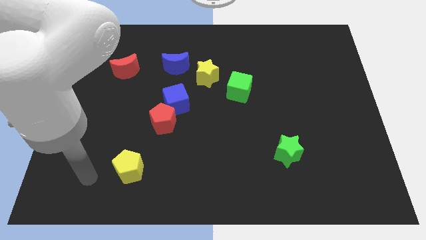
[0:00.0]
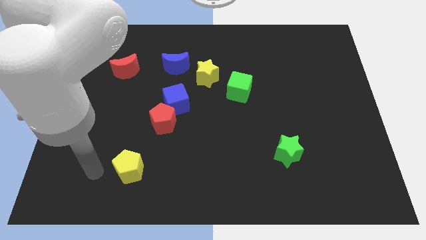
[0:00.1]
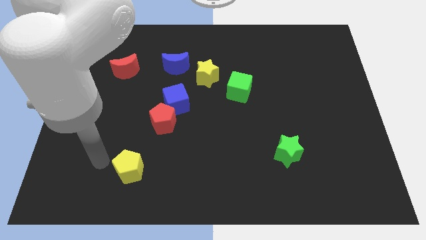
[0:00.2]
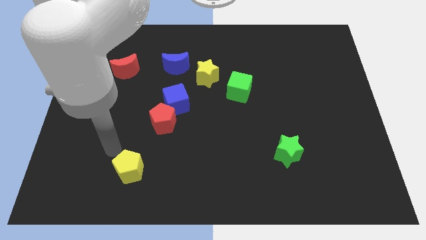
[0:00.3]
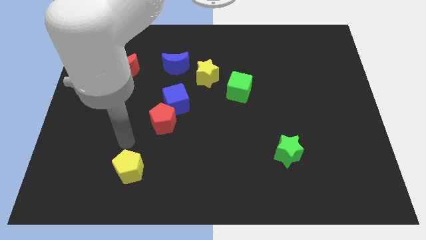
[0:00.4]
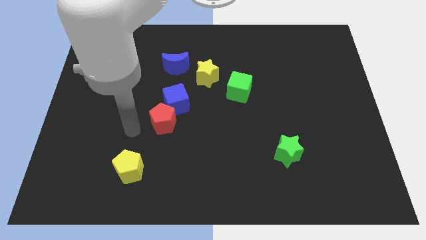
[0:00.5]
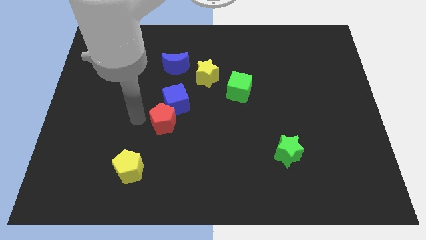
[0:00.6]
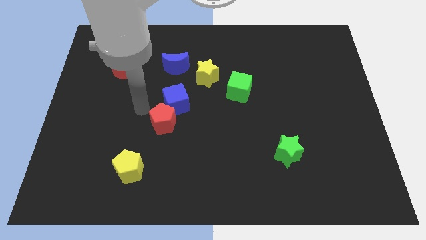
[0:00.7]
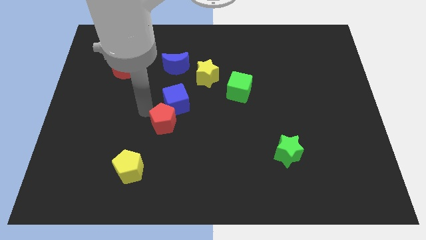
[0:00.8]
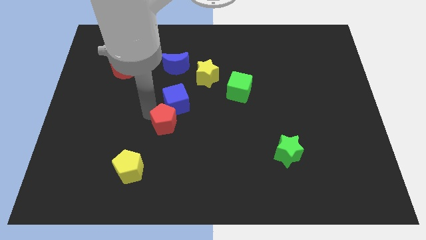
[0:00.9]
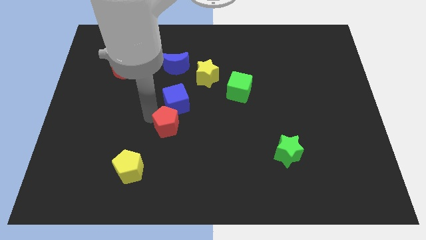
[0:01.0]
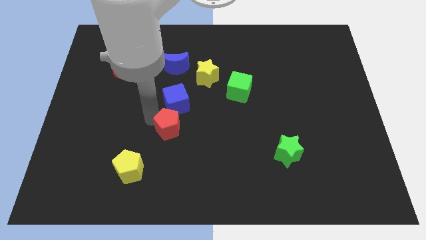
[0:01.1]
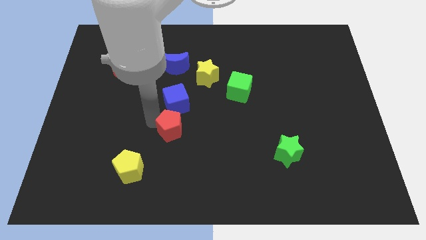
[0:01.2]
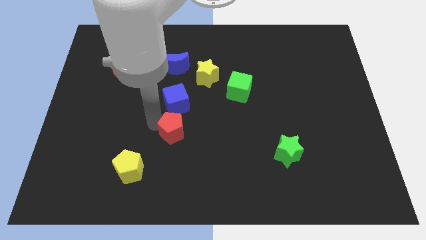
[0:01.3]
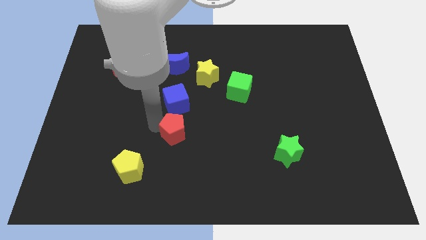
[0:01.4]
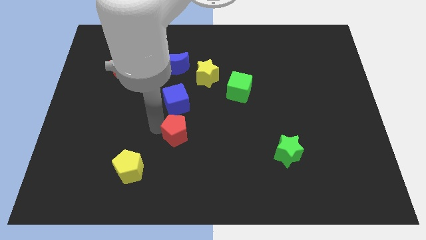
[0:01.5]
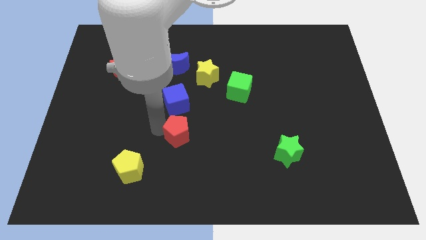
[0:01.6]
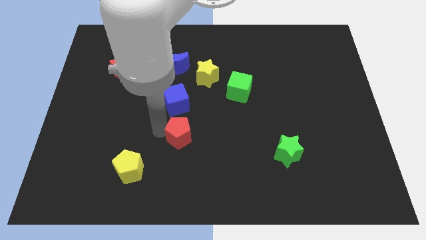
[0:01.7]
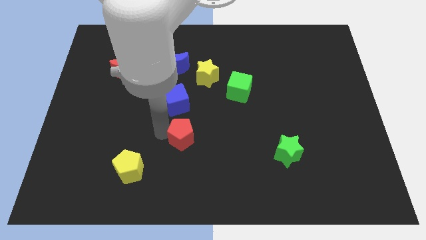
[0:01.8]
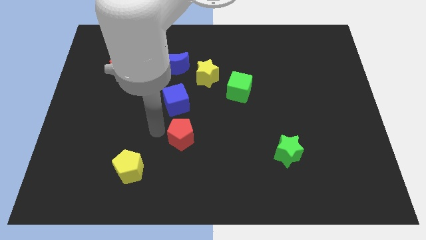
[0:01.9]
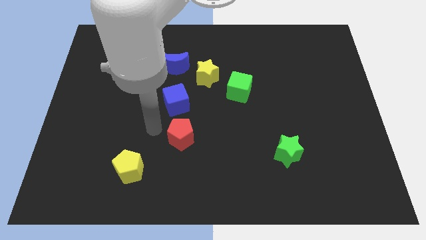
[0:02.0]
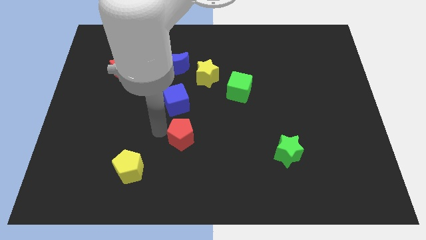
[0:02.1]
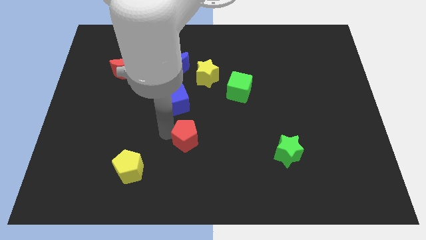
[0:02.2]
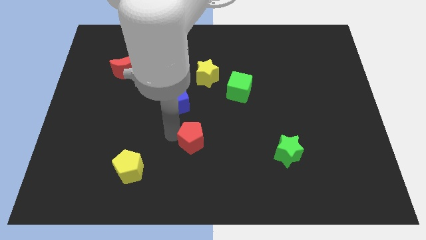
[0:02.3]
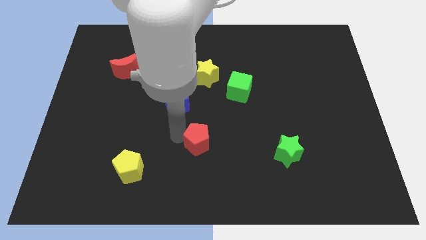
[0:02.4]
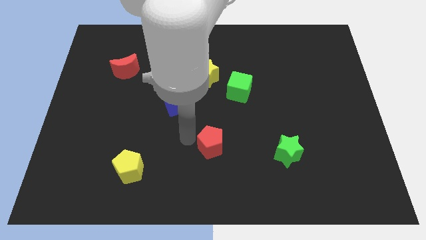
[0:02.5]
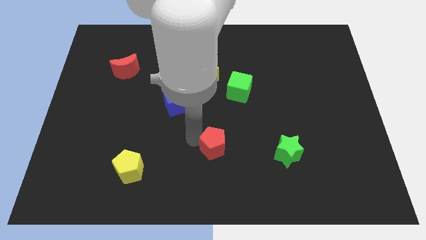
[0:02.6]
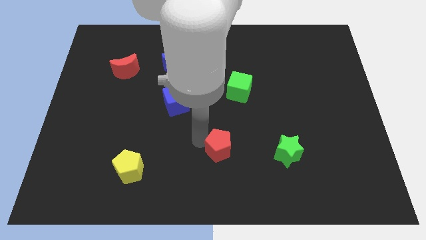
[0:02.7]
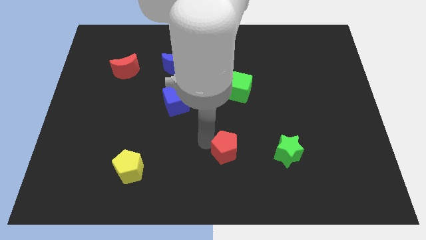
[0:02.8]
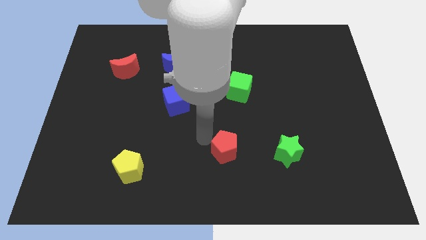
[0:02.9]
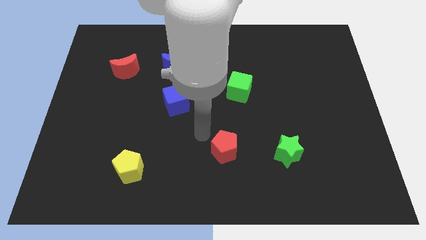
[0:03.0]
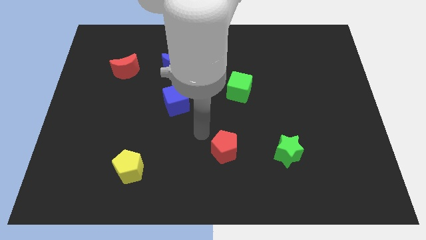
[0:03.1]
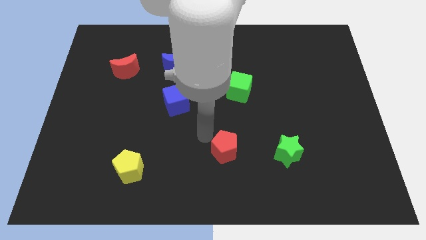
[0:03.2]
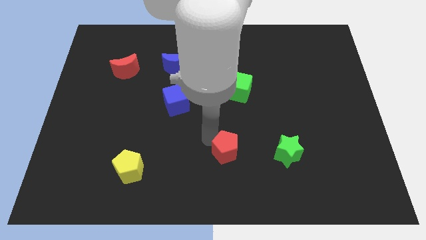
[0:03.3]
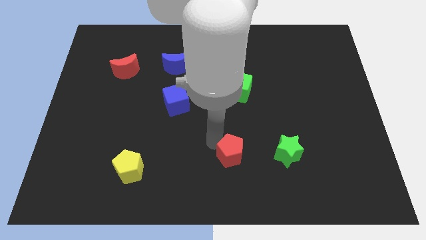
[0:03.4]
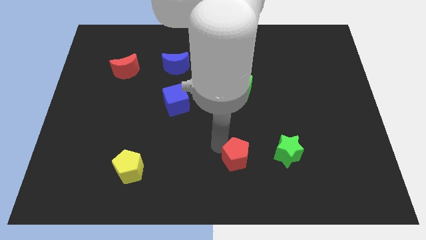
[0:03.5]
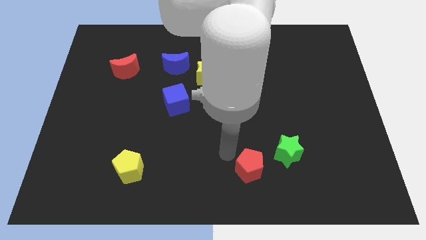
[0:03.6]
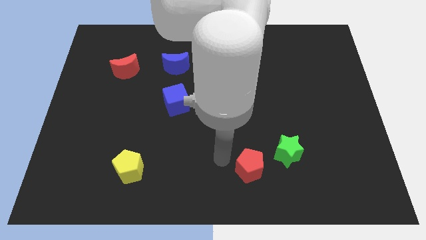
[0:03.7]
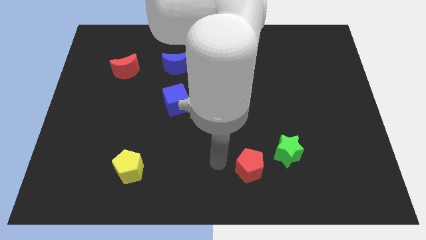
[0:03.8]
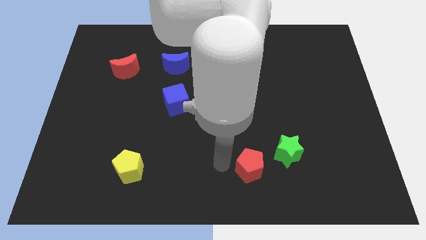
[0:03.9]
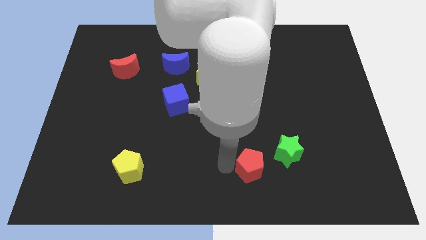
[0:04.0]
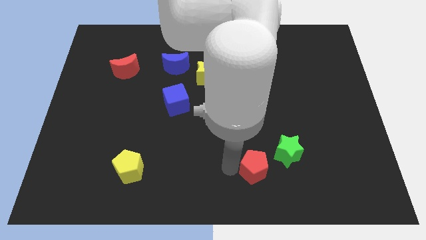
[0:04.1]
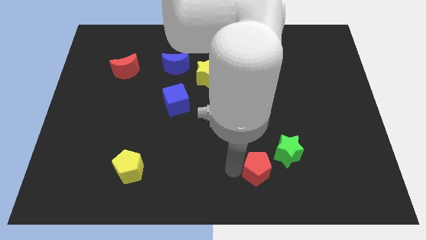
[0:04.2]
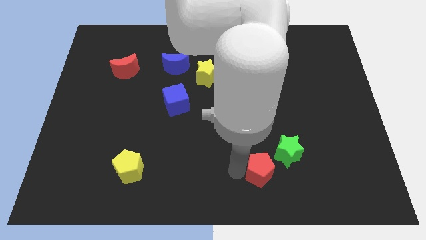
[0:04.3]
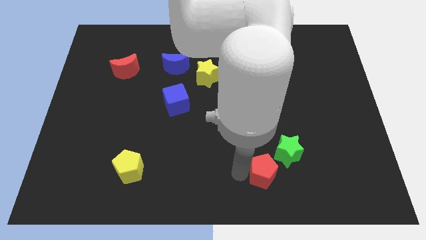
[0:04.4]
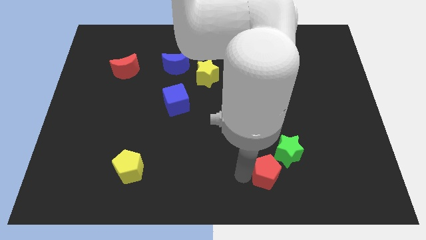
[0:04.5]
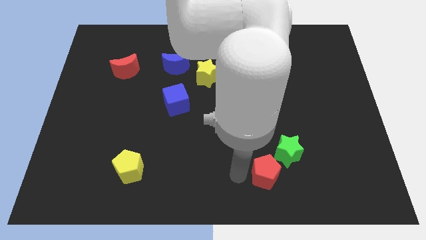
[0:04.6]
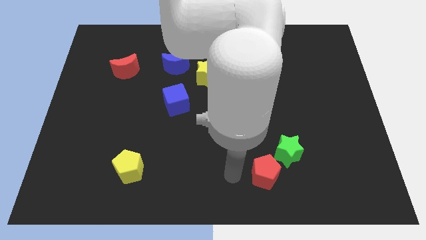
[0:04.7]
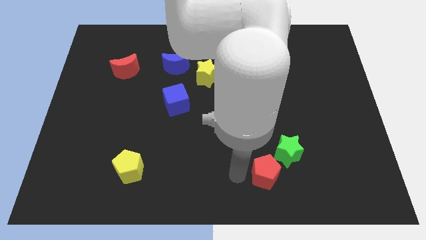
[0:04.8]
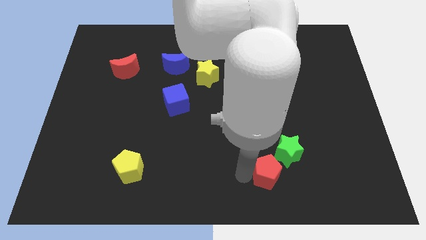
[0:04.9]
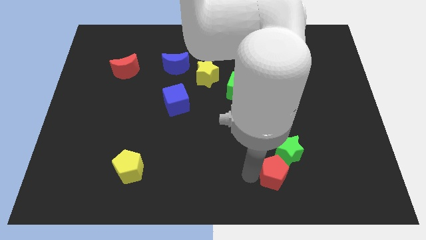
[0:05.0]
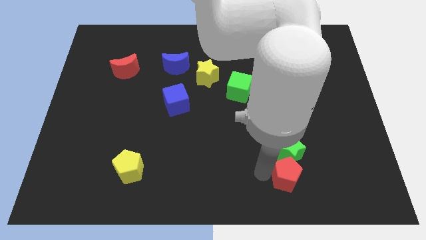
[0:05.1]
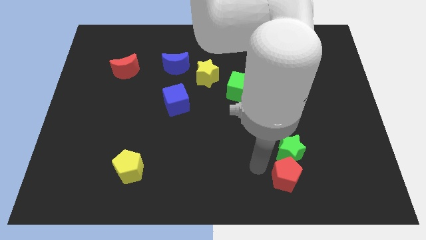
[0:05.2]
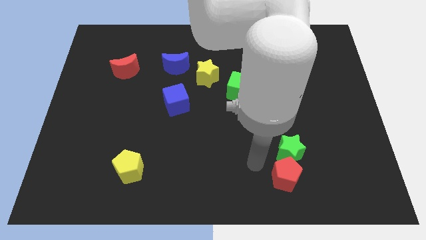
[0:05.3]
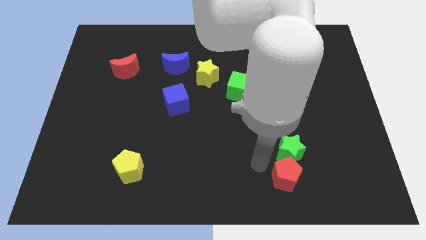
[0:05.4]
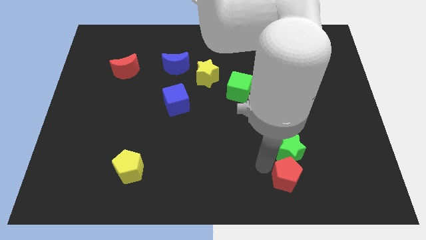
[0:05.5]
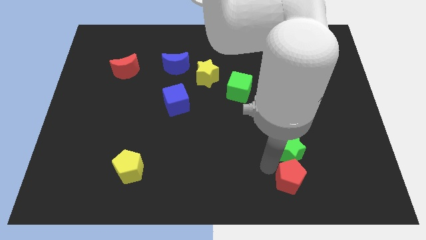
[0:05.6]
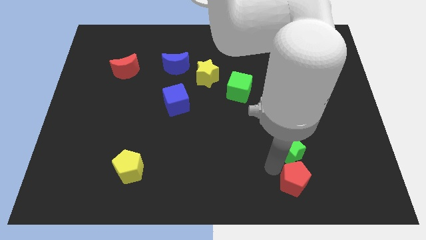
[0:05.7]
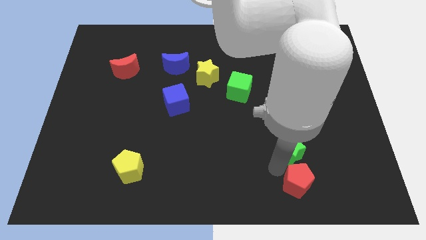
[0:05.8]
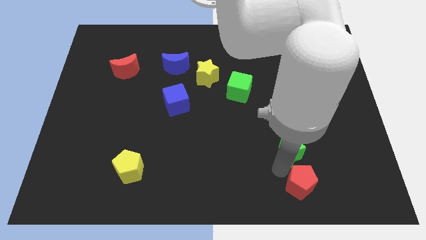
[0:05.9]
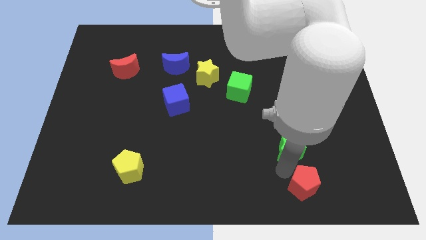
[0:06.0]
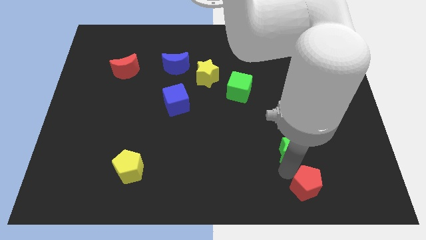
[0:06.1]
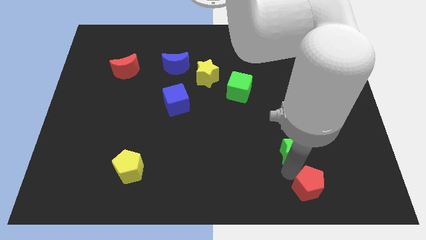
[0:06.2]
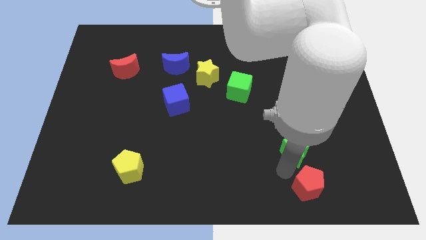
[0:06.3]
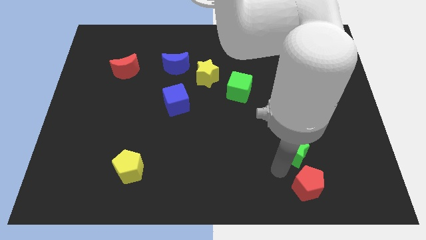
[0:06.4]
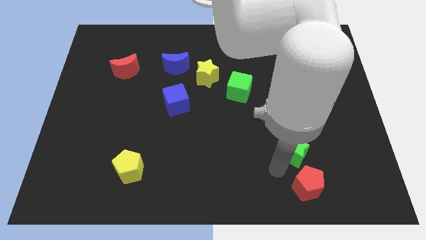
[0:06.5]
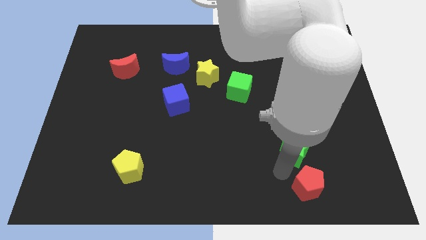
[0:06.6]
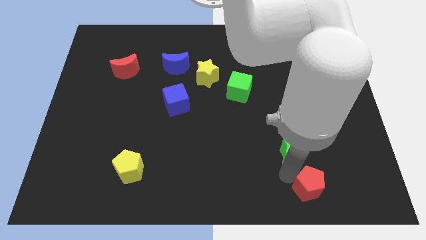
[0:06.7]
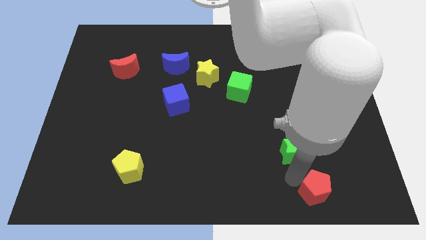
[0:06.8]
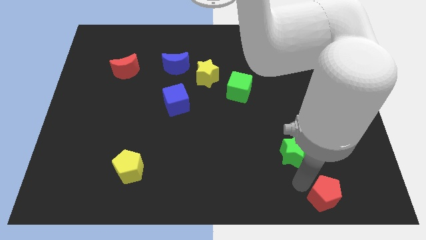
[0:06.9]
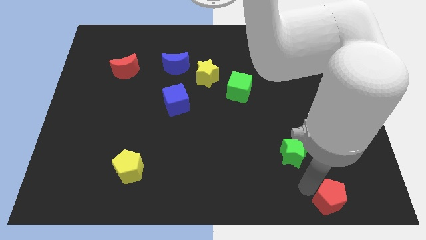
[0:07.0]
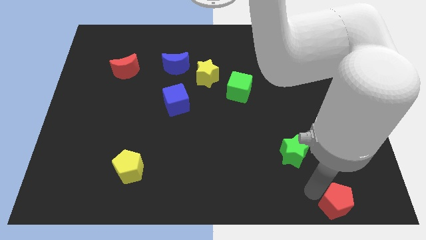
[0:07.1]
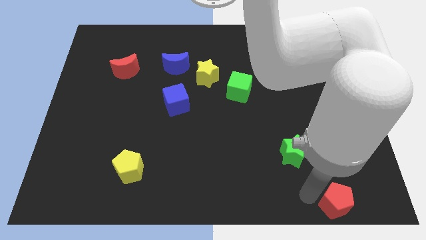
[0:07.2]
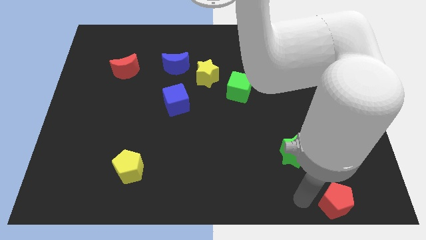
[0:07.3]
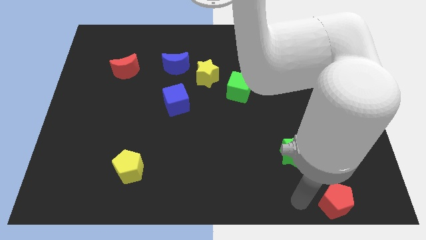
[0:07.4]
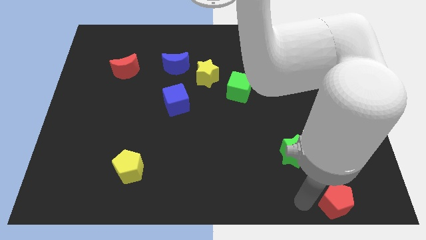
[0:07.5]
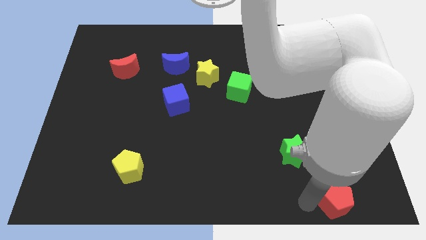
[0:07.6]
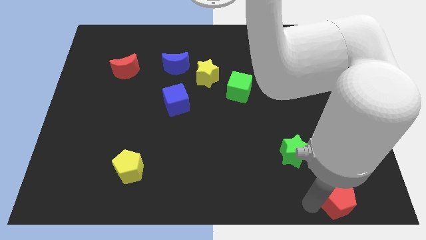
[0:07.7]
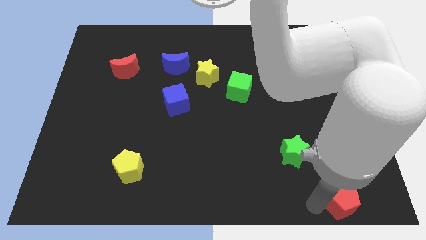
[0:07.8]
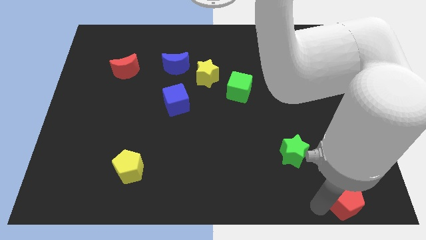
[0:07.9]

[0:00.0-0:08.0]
slide the red pentagon to the bottom right corner
